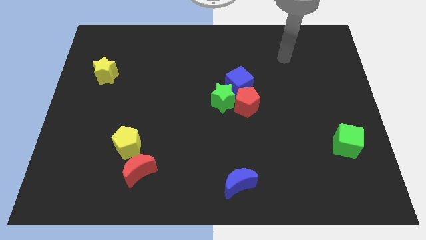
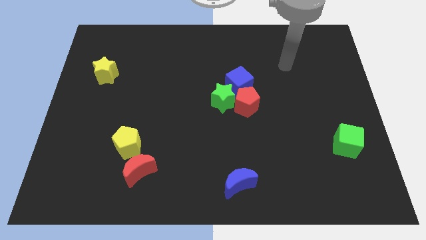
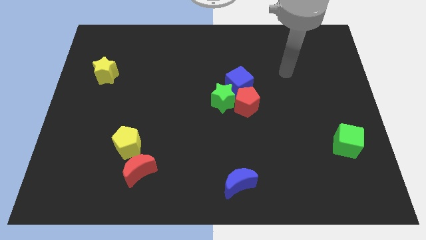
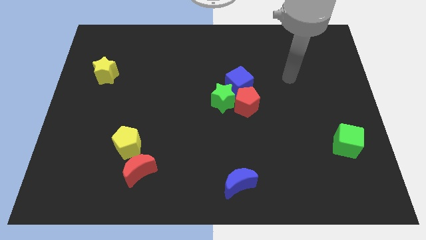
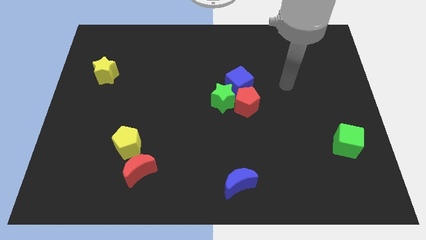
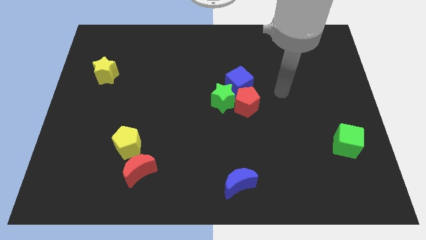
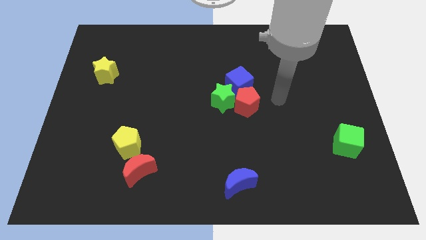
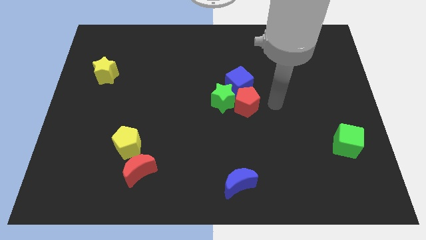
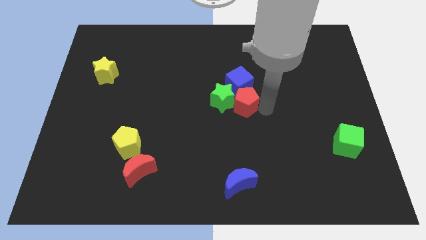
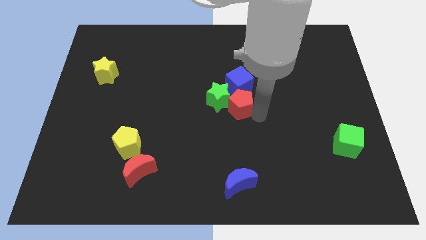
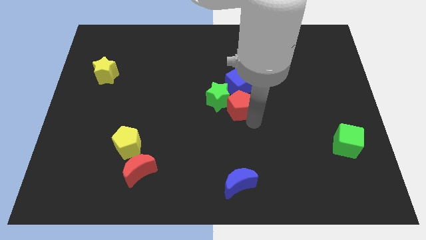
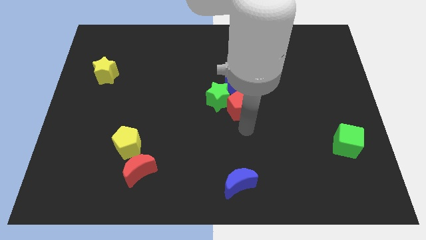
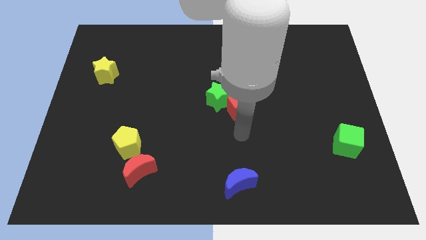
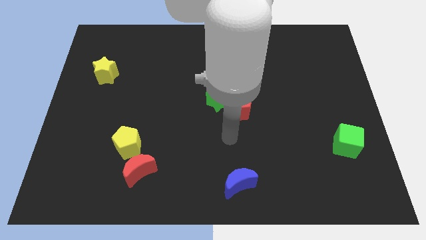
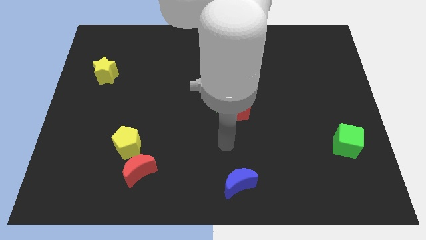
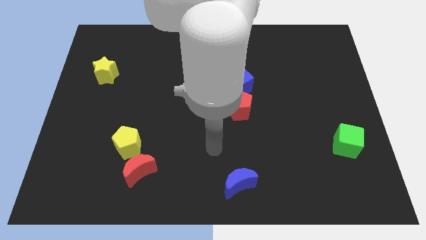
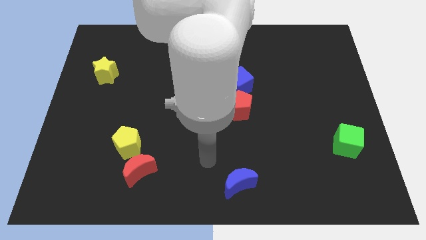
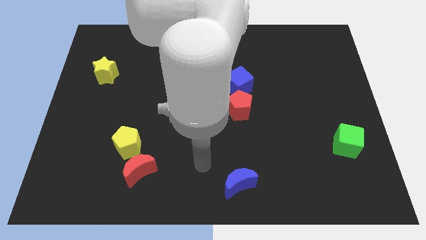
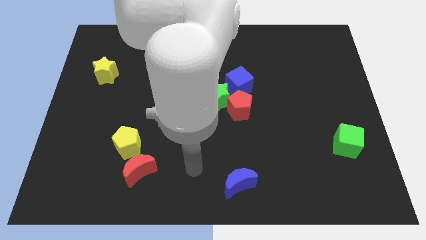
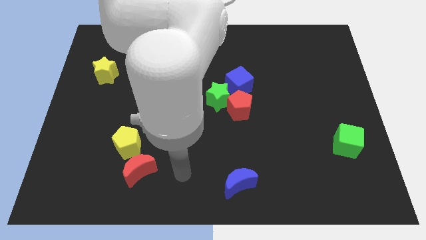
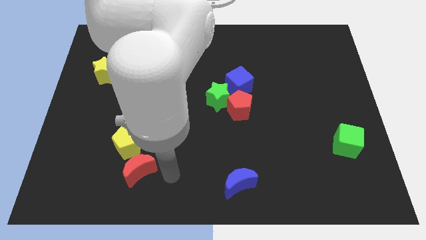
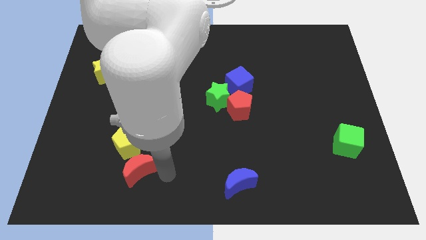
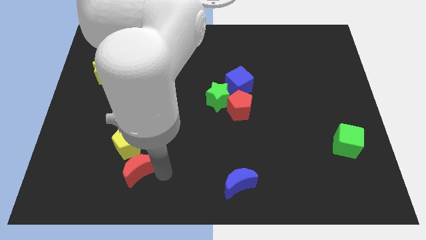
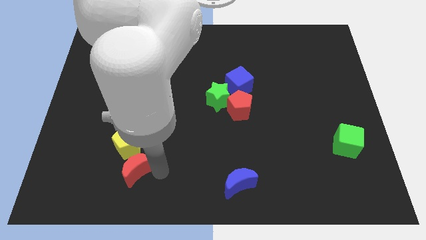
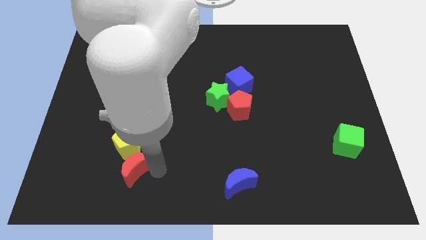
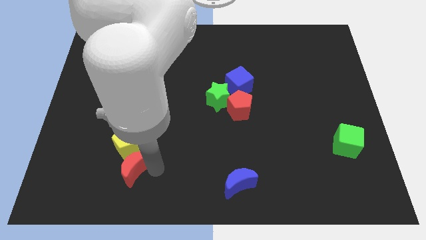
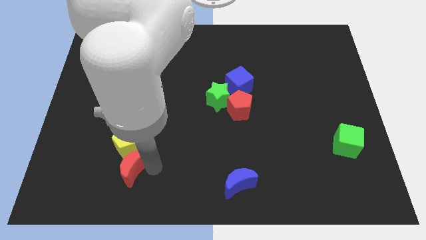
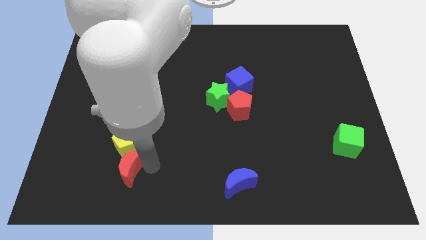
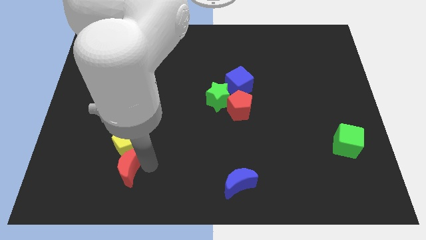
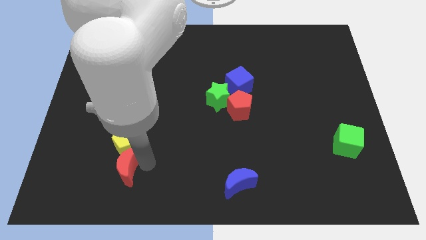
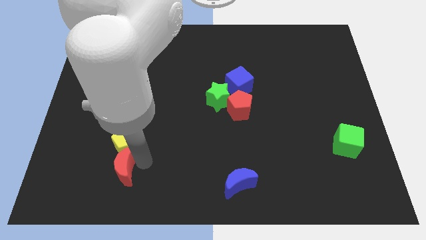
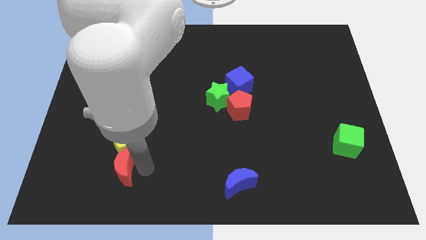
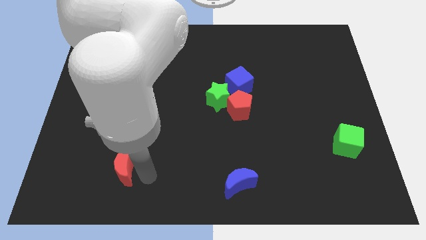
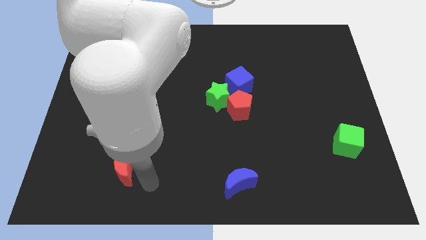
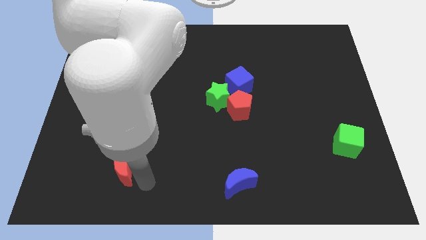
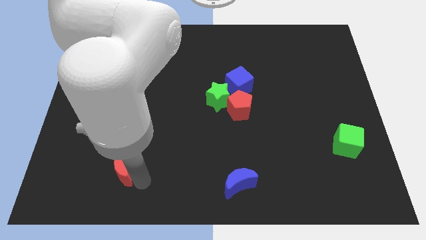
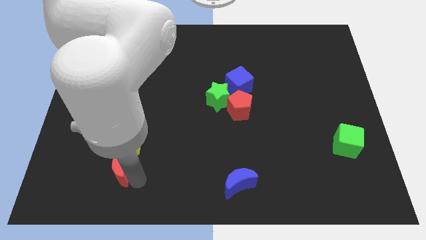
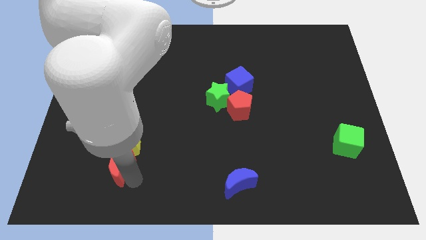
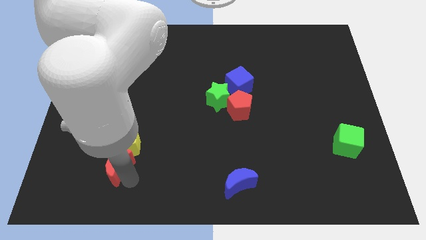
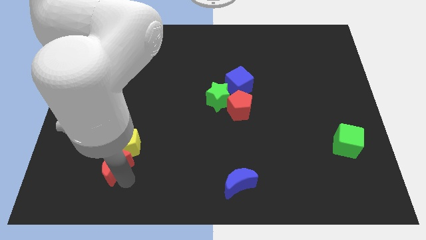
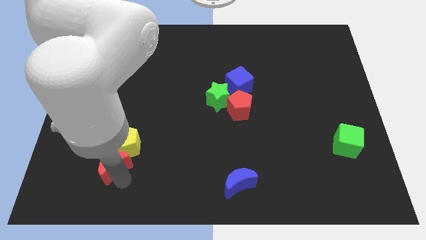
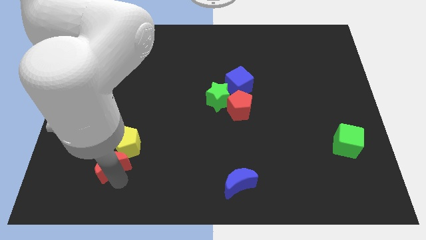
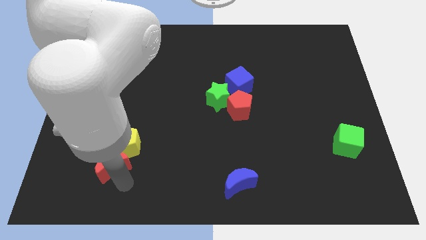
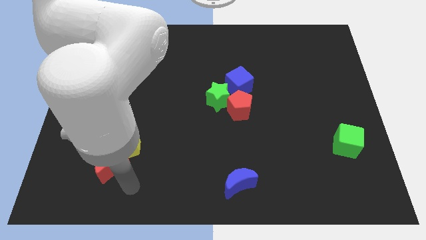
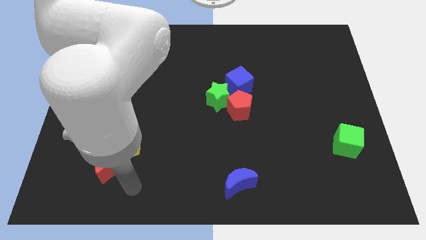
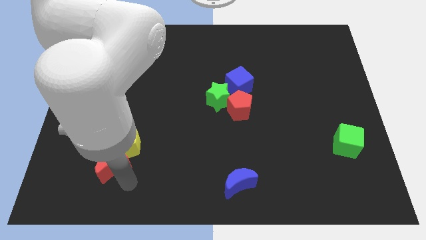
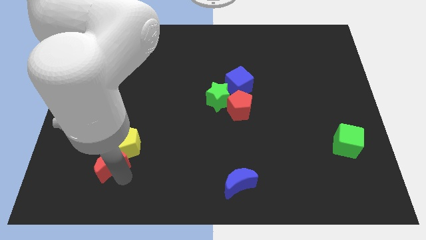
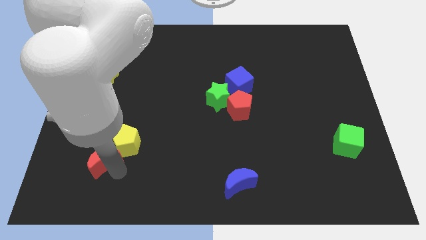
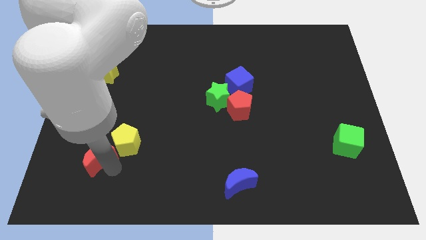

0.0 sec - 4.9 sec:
slightly move the red moon upwards and left diagonally

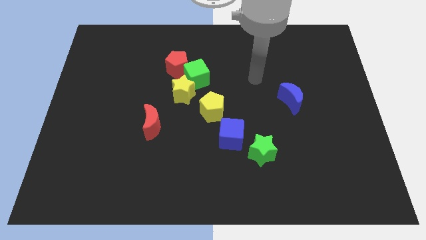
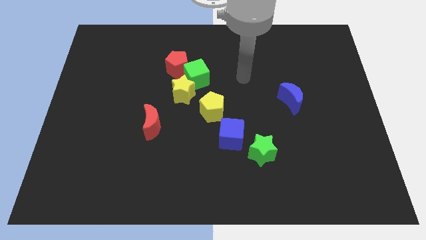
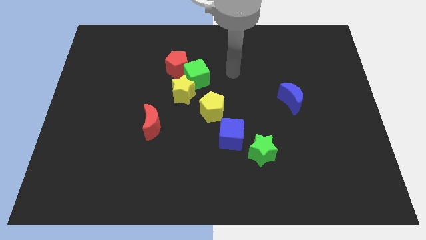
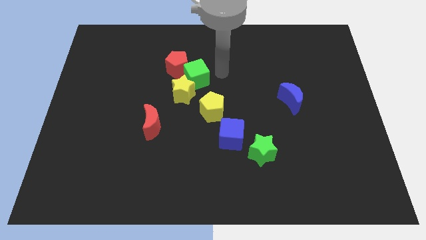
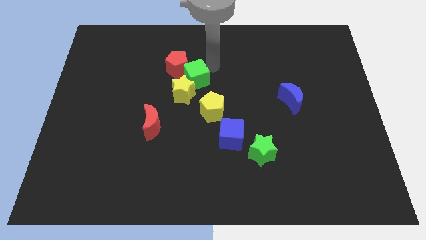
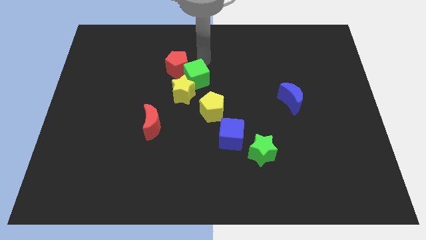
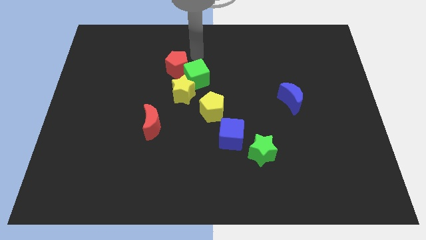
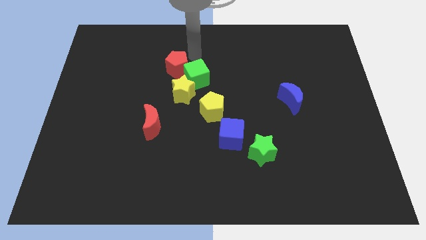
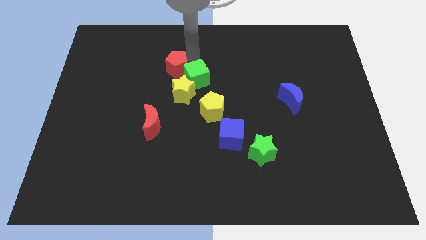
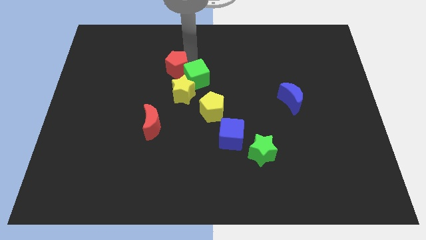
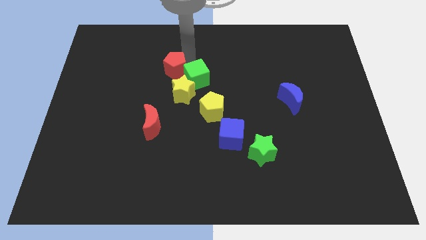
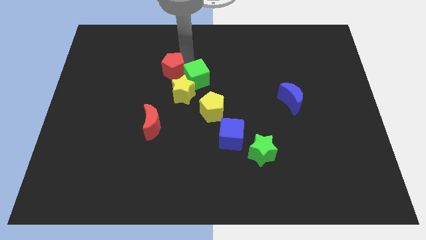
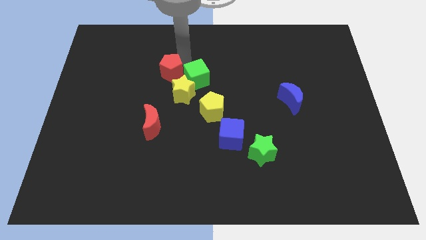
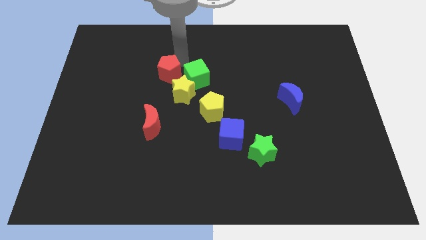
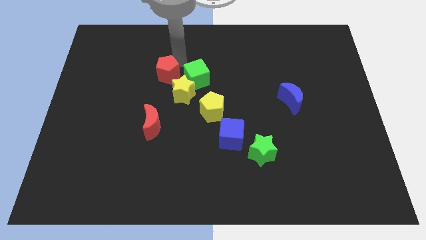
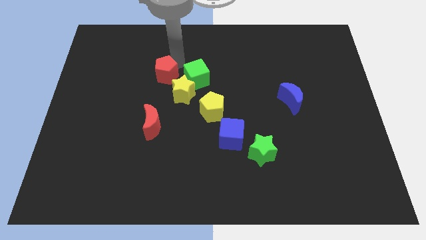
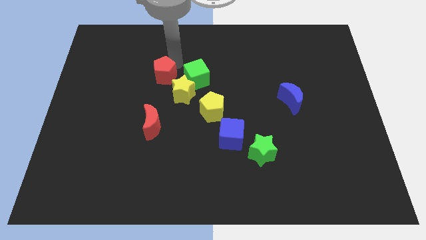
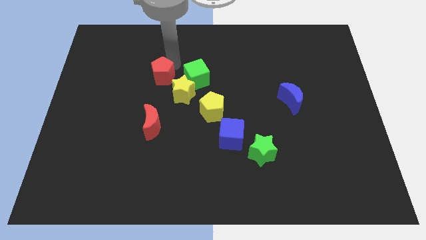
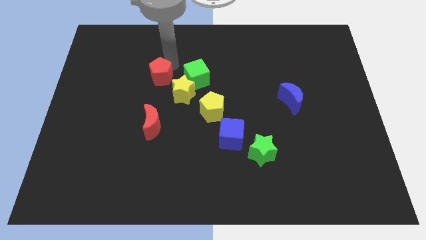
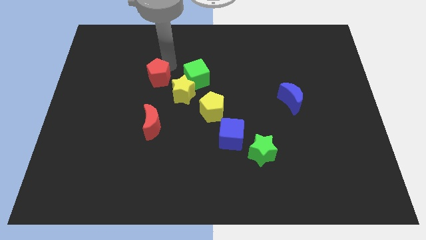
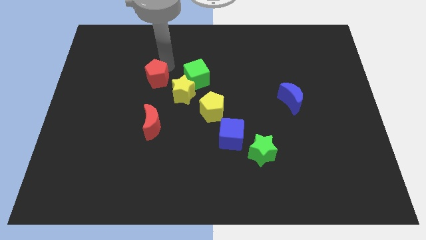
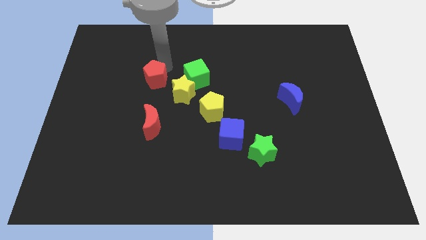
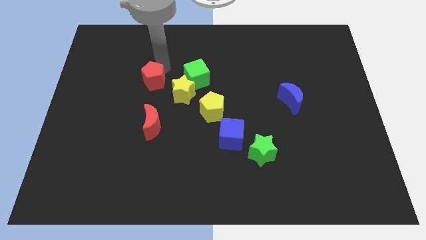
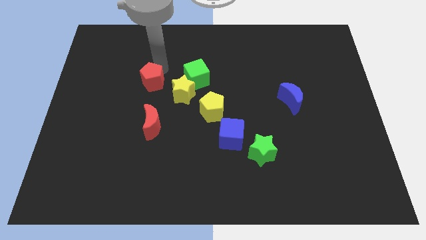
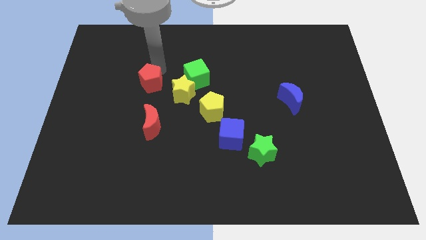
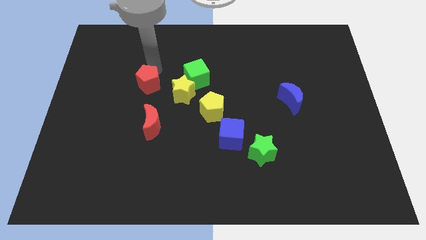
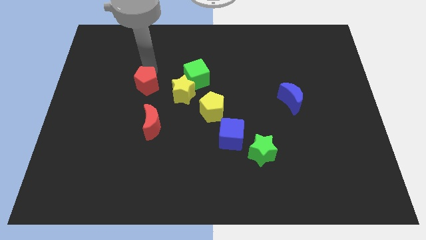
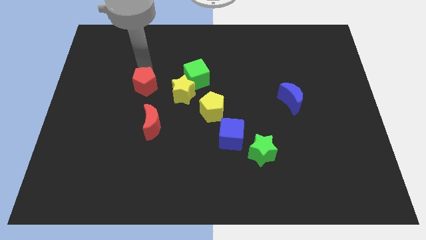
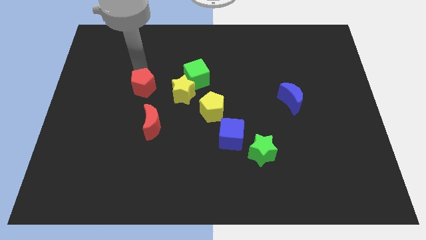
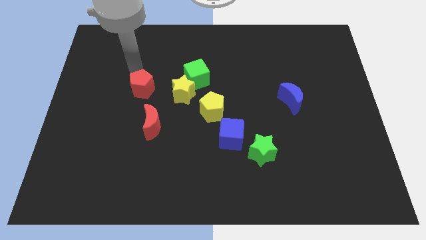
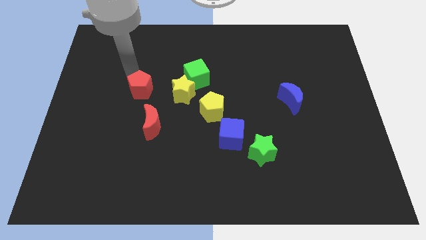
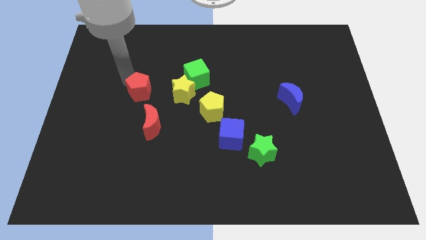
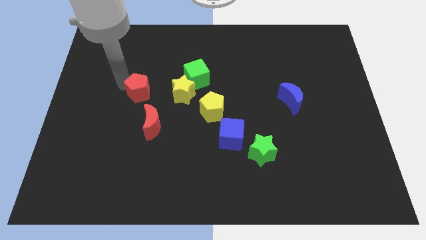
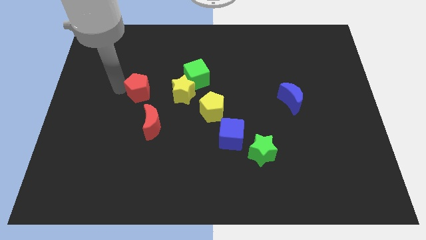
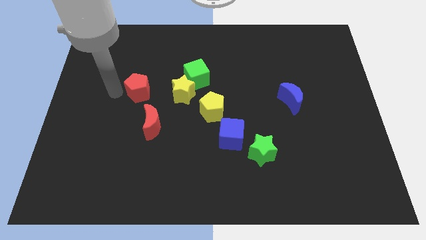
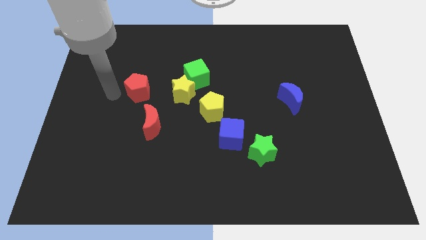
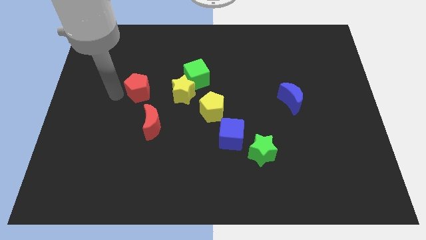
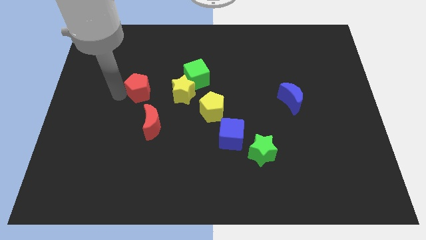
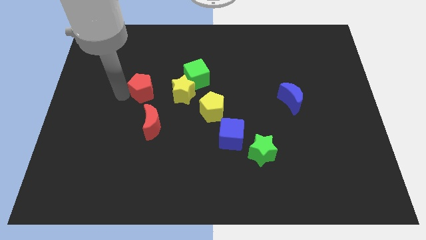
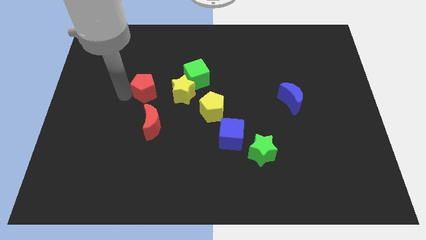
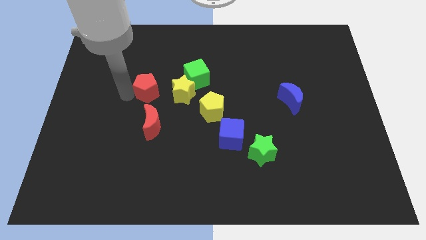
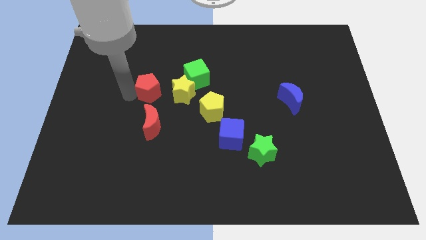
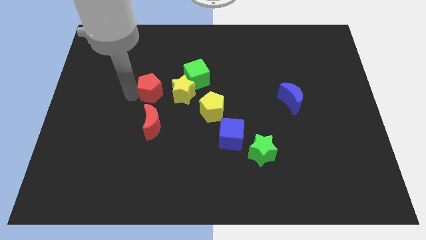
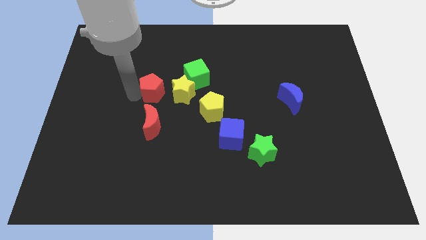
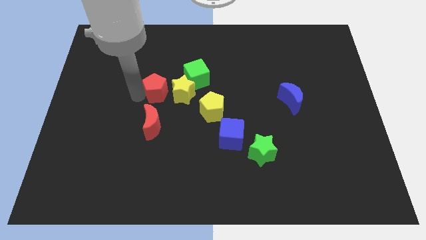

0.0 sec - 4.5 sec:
push the red pentagon slightly downwards
